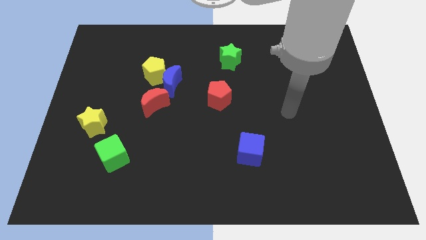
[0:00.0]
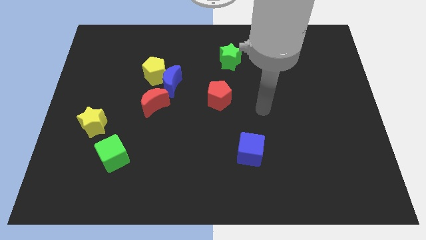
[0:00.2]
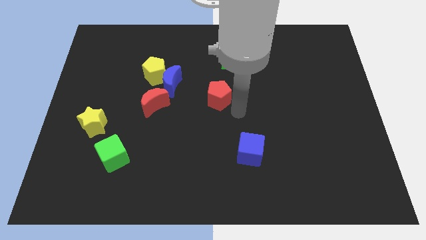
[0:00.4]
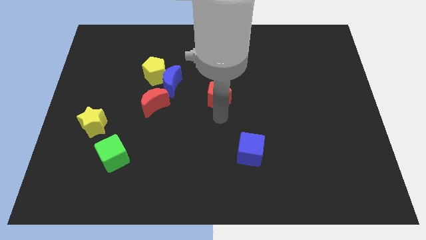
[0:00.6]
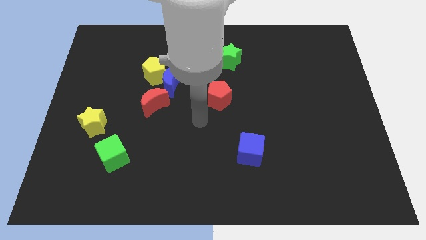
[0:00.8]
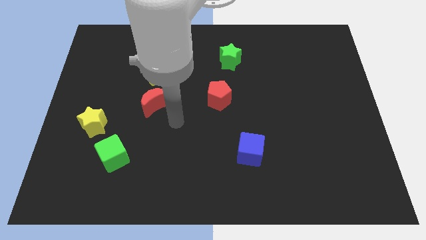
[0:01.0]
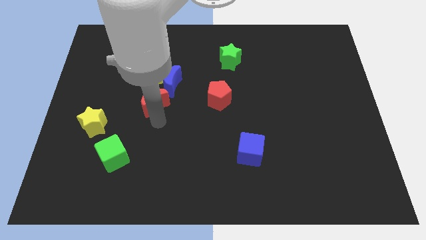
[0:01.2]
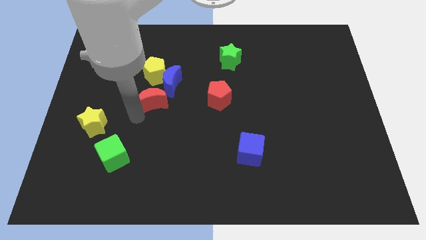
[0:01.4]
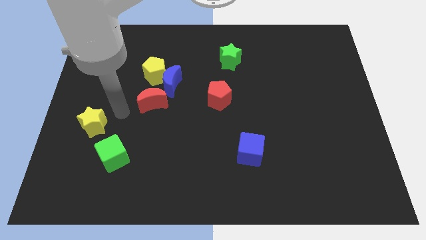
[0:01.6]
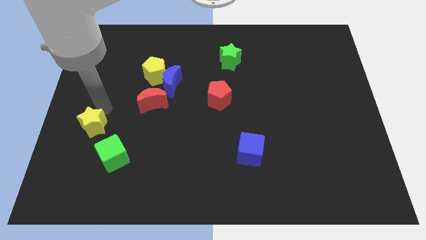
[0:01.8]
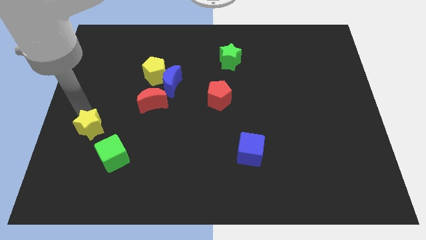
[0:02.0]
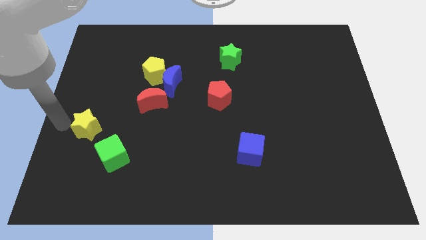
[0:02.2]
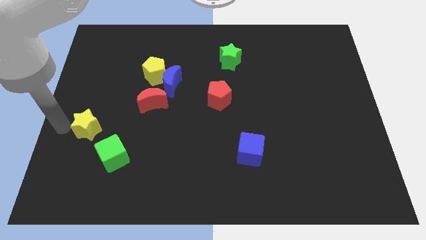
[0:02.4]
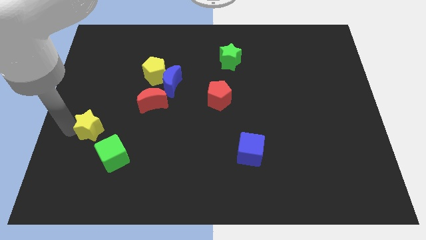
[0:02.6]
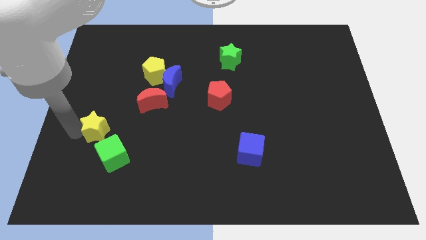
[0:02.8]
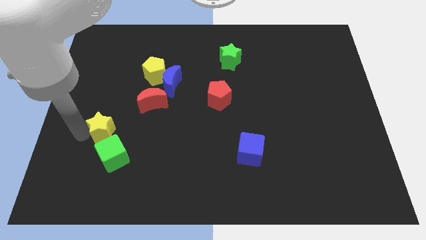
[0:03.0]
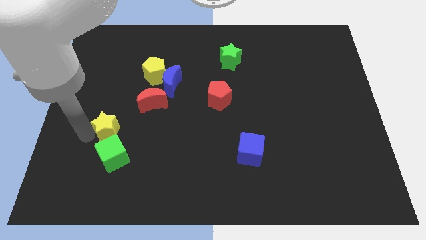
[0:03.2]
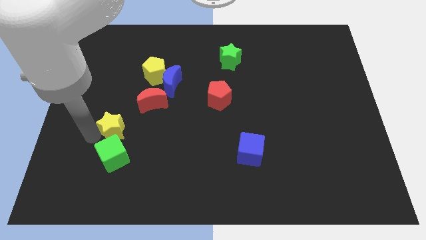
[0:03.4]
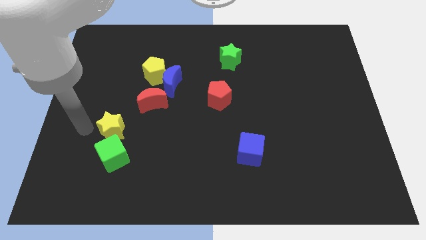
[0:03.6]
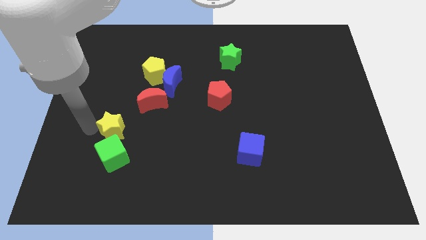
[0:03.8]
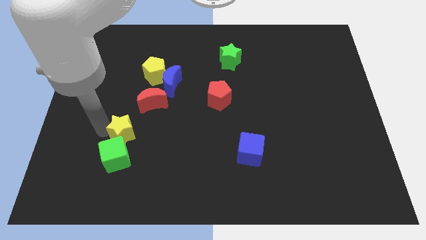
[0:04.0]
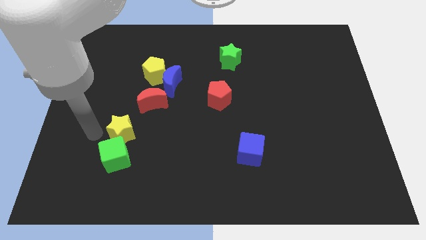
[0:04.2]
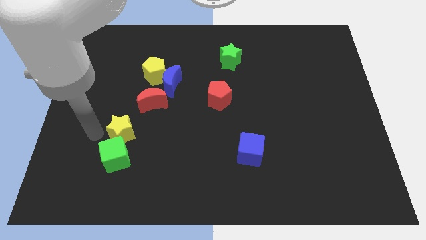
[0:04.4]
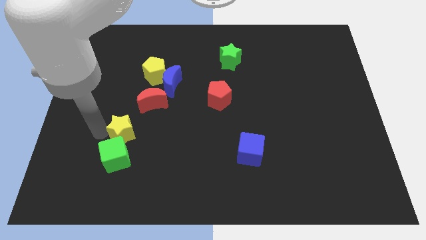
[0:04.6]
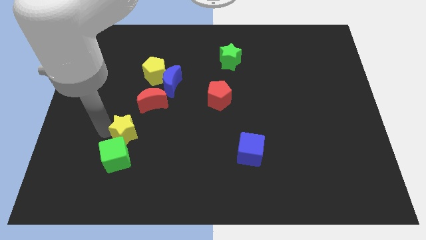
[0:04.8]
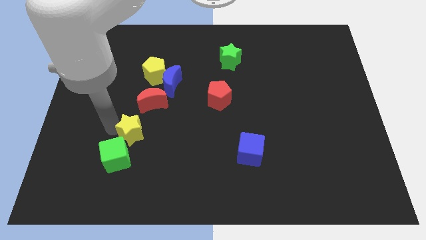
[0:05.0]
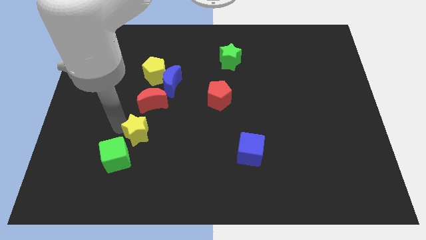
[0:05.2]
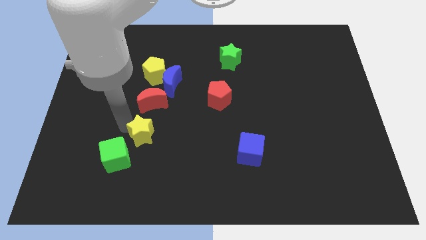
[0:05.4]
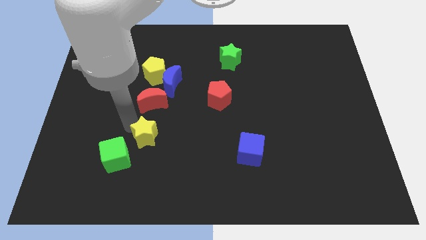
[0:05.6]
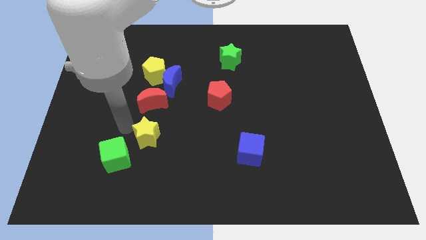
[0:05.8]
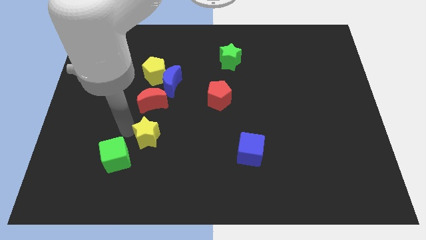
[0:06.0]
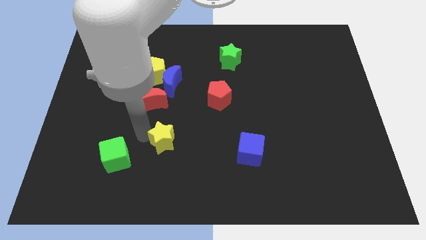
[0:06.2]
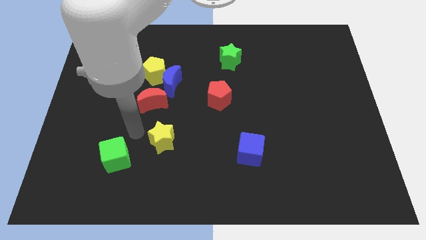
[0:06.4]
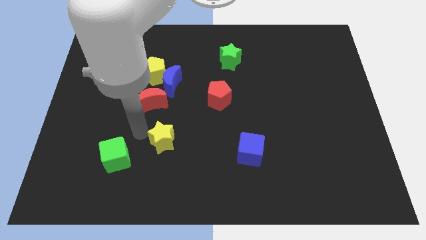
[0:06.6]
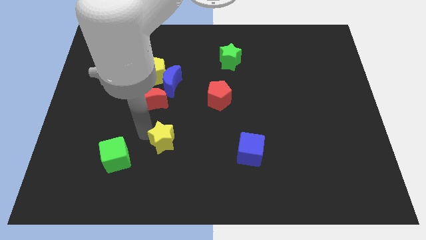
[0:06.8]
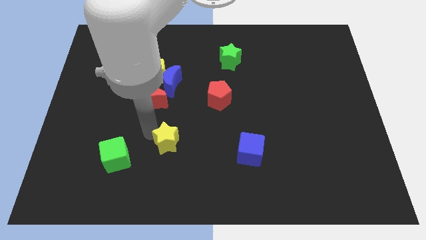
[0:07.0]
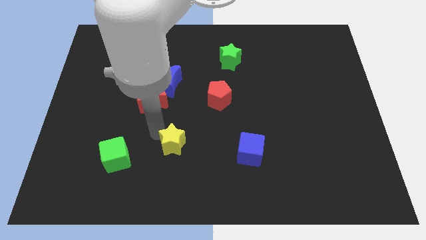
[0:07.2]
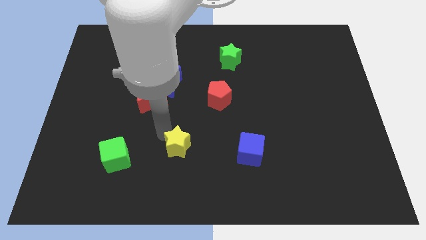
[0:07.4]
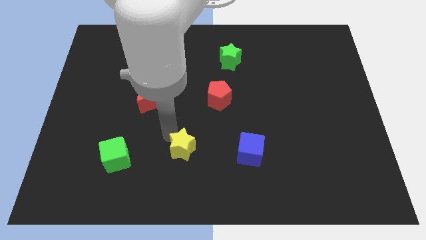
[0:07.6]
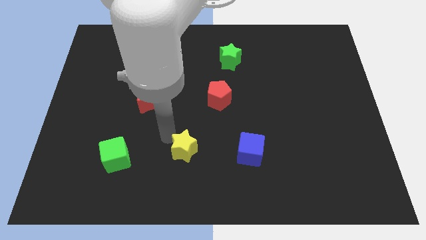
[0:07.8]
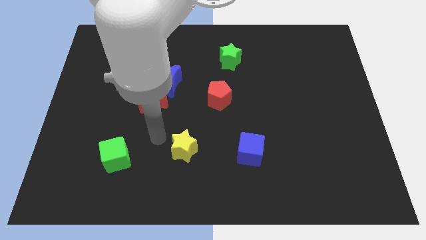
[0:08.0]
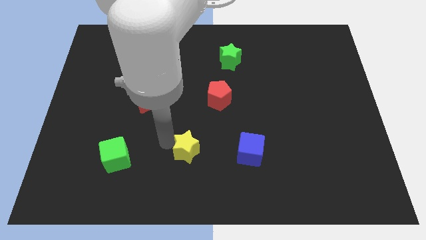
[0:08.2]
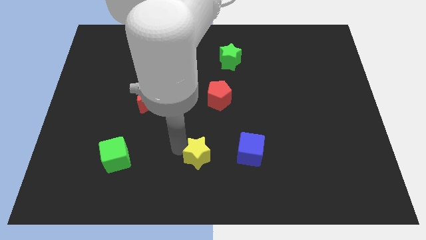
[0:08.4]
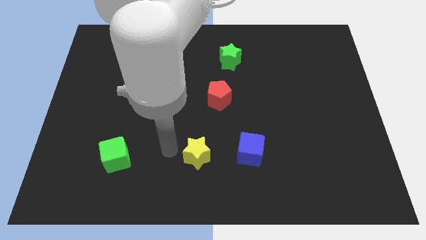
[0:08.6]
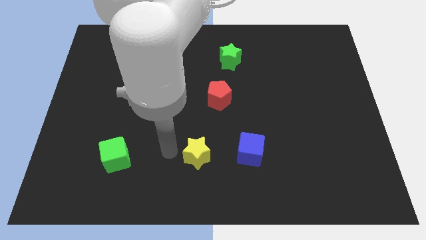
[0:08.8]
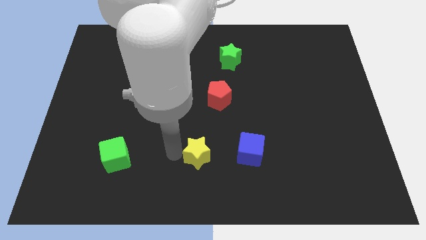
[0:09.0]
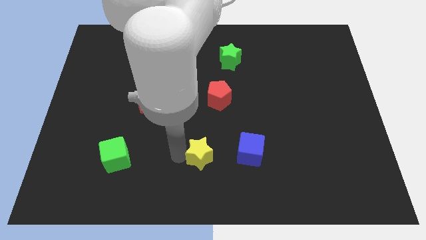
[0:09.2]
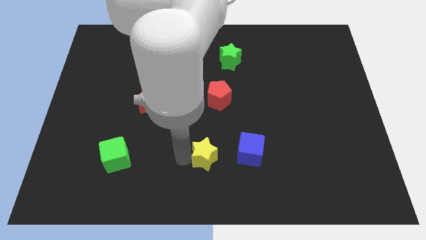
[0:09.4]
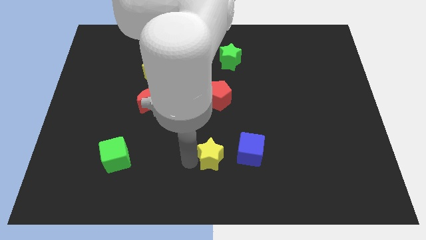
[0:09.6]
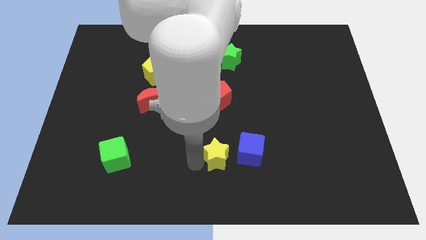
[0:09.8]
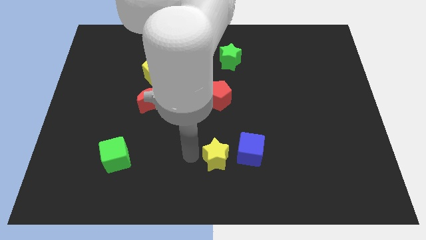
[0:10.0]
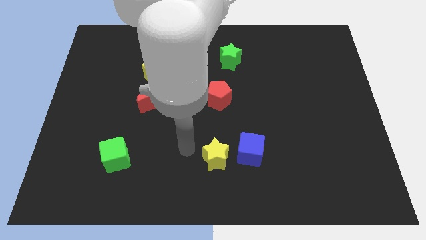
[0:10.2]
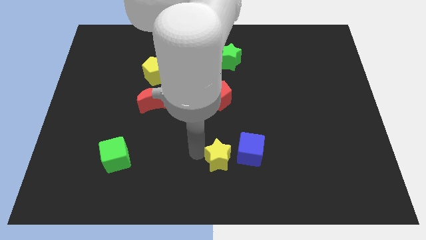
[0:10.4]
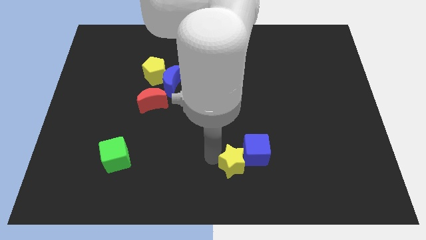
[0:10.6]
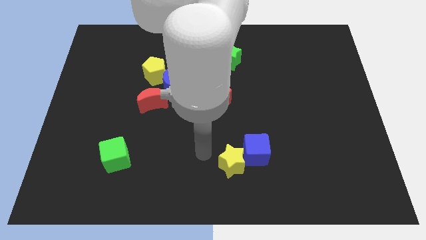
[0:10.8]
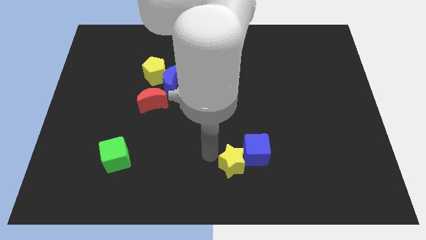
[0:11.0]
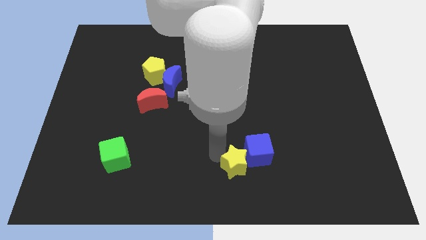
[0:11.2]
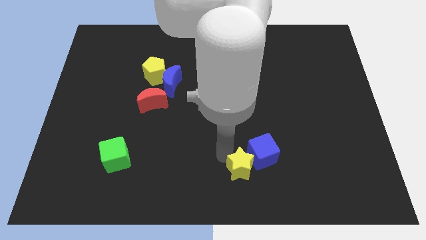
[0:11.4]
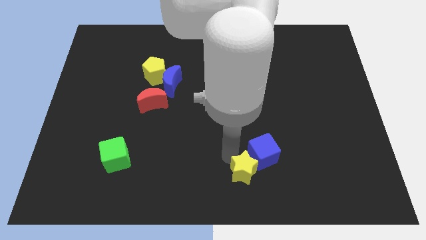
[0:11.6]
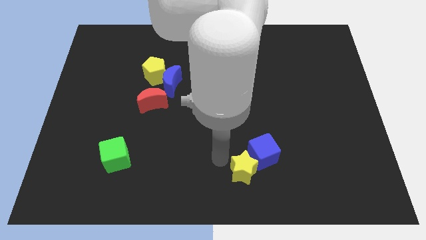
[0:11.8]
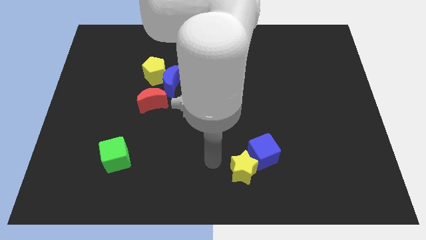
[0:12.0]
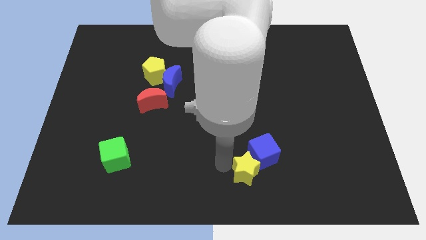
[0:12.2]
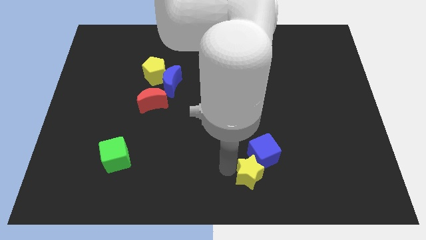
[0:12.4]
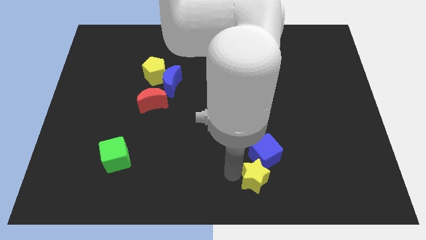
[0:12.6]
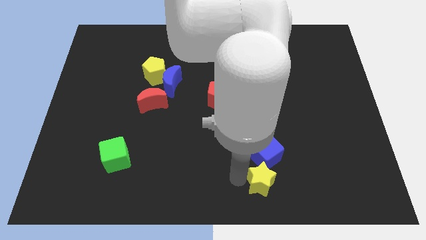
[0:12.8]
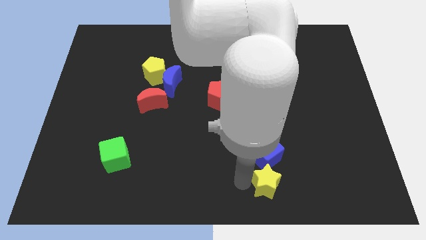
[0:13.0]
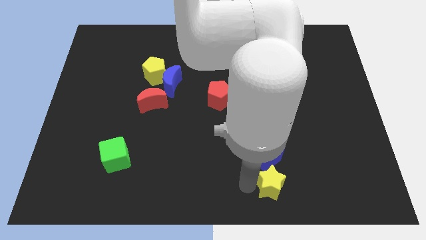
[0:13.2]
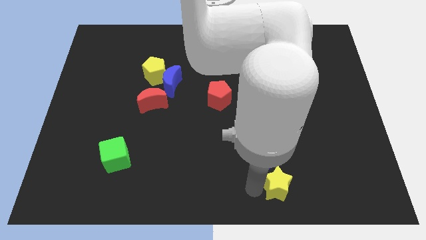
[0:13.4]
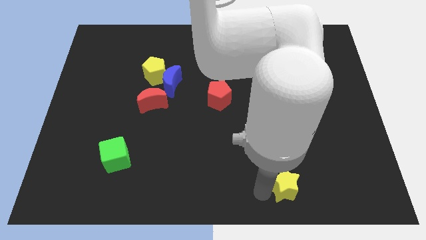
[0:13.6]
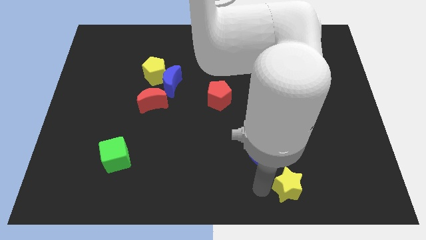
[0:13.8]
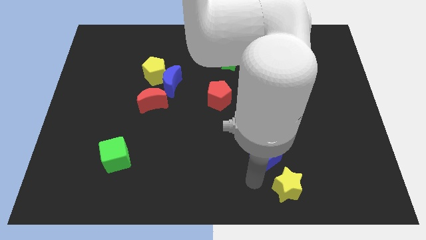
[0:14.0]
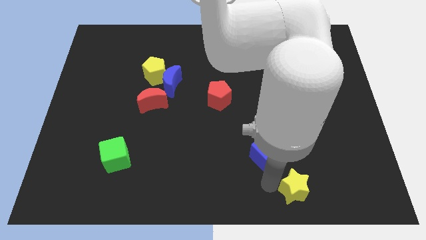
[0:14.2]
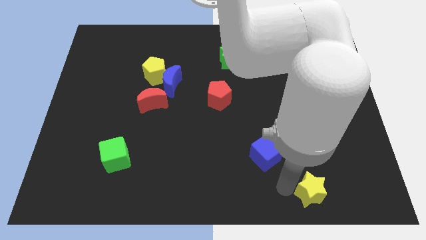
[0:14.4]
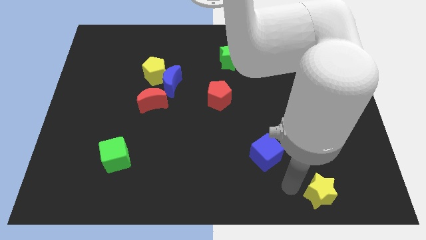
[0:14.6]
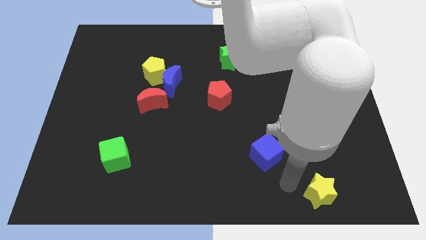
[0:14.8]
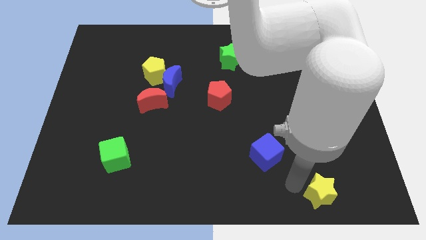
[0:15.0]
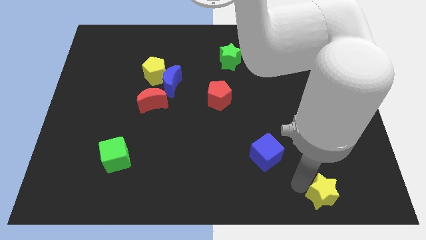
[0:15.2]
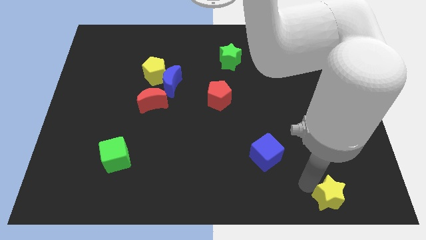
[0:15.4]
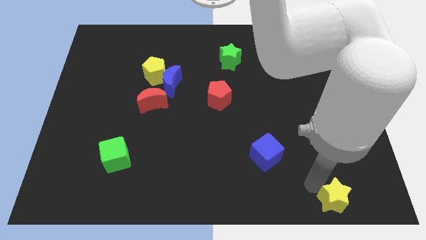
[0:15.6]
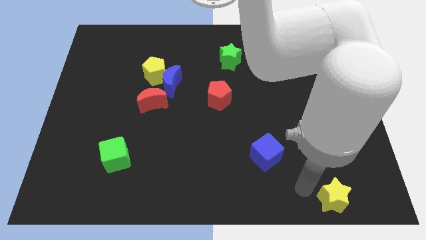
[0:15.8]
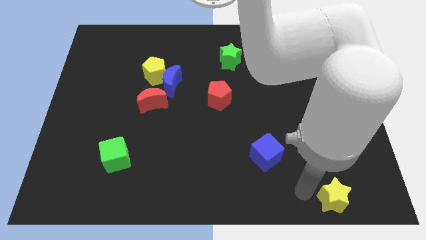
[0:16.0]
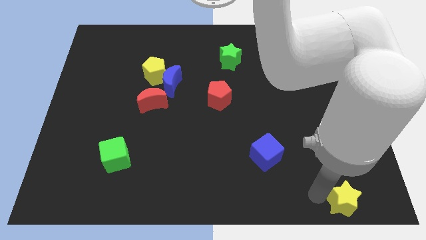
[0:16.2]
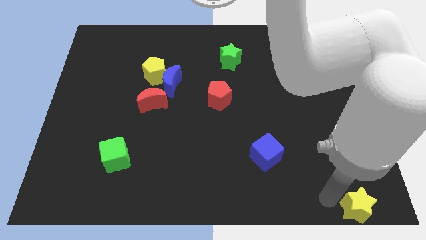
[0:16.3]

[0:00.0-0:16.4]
put the yellow star to the bottom right corner
